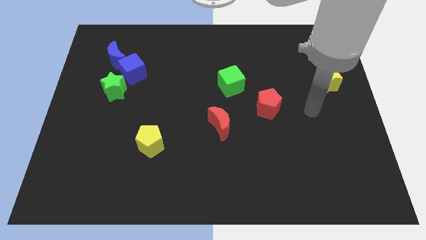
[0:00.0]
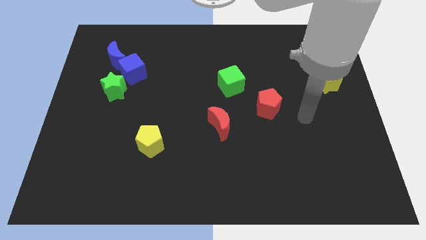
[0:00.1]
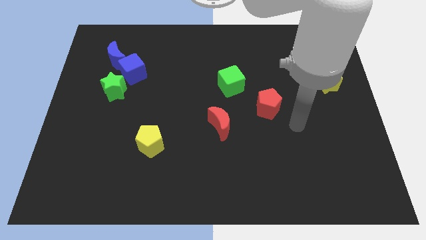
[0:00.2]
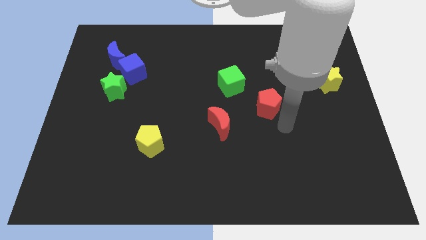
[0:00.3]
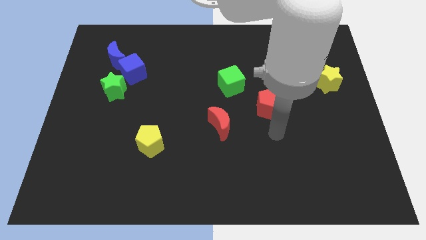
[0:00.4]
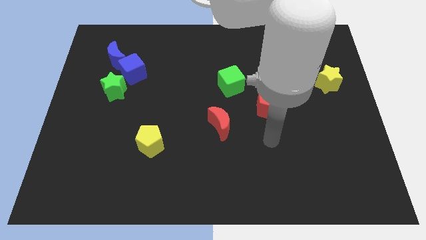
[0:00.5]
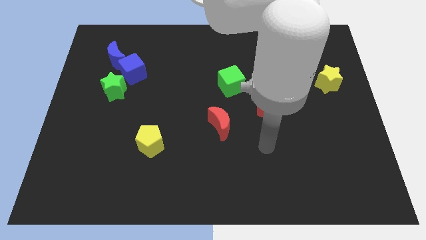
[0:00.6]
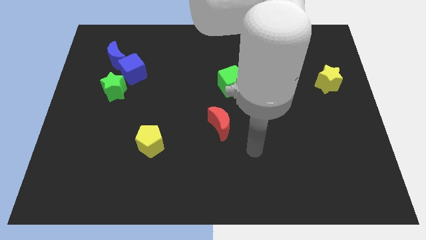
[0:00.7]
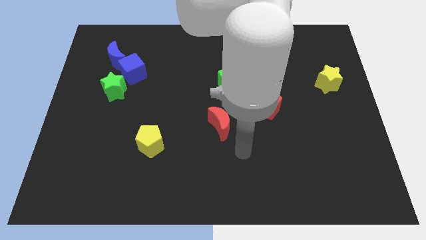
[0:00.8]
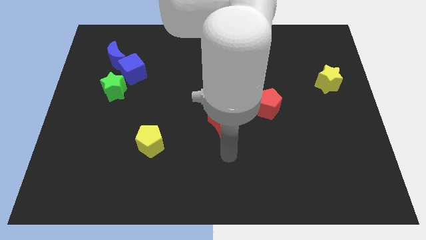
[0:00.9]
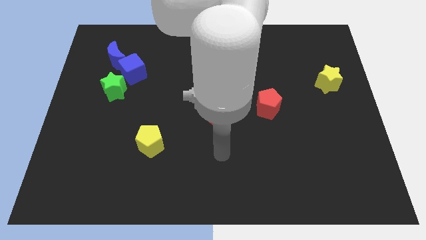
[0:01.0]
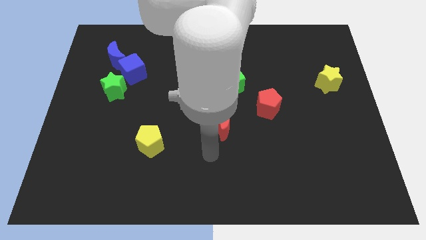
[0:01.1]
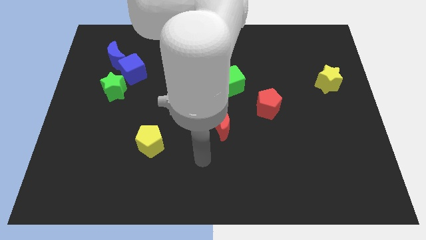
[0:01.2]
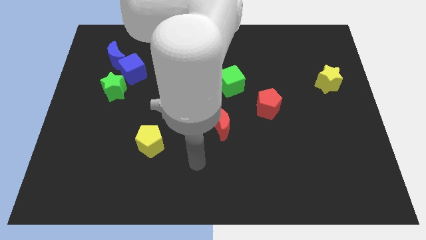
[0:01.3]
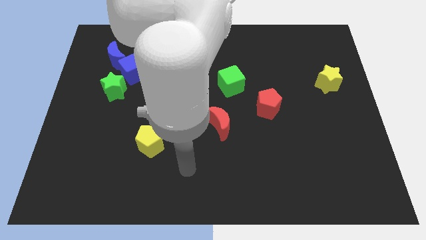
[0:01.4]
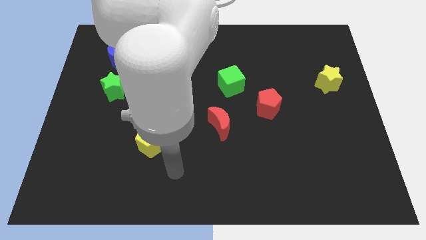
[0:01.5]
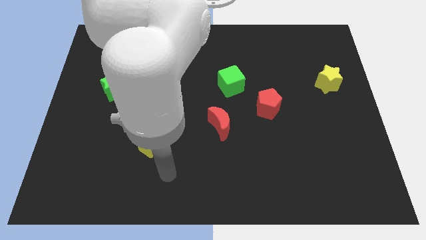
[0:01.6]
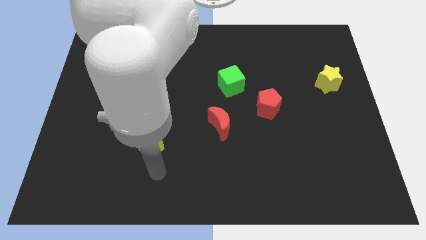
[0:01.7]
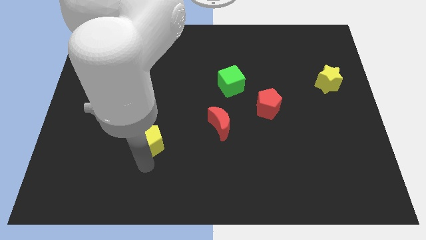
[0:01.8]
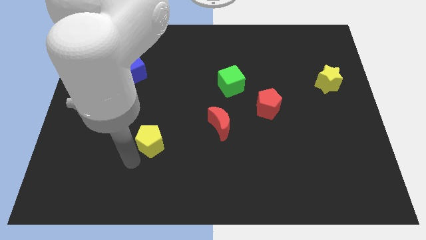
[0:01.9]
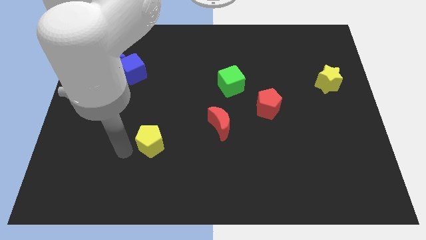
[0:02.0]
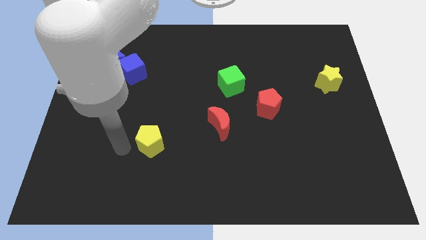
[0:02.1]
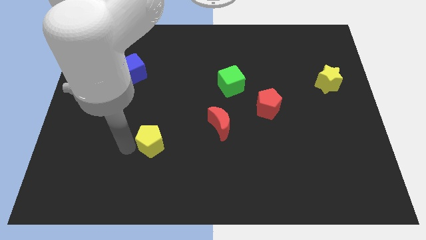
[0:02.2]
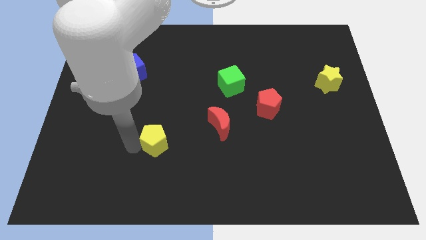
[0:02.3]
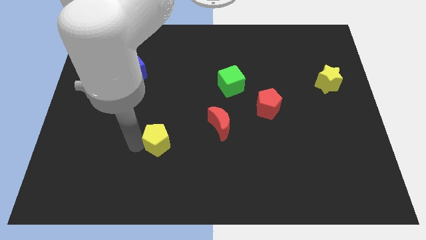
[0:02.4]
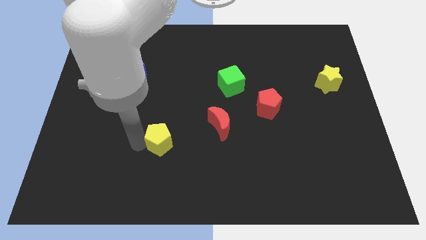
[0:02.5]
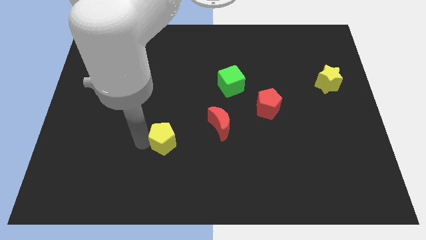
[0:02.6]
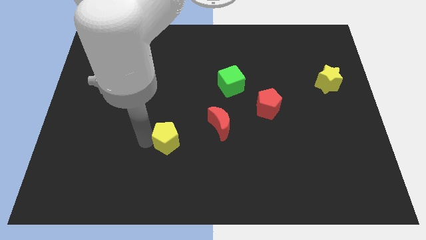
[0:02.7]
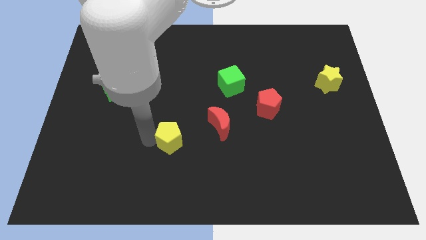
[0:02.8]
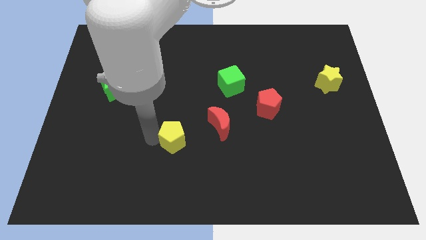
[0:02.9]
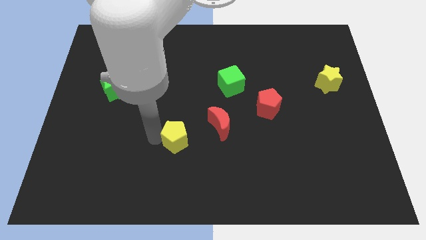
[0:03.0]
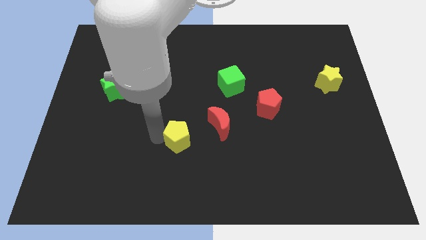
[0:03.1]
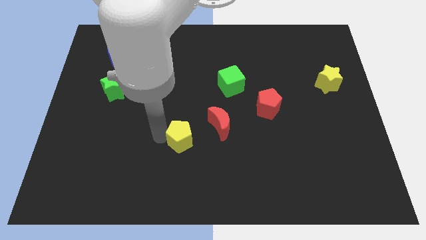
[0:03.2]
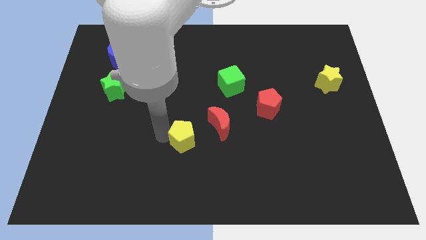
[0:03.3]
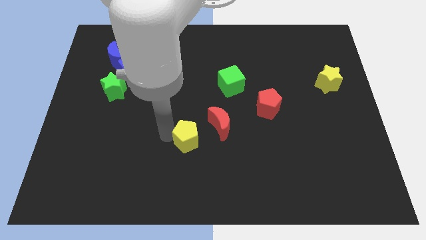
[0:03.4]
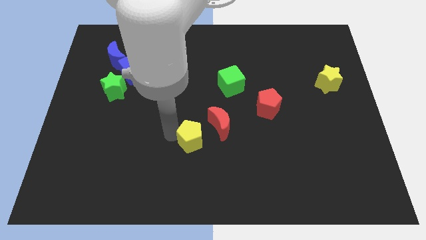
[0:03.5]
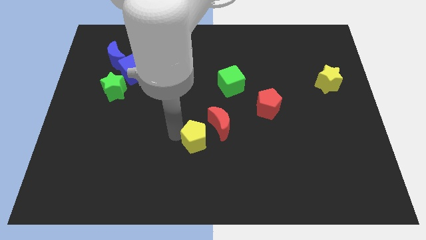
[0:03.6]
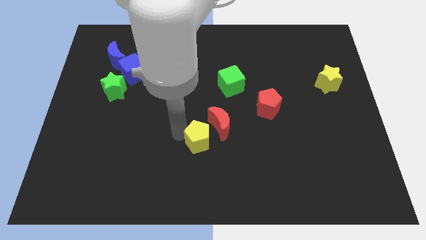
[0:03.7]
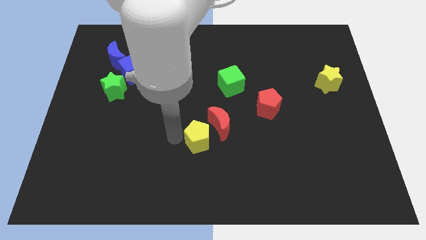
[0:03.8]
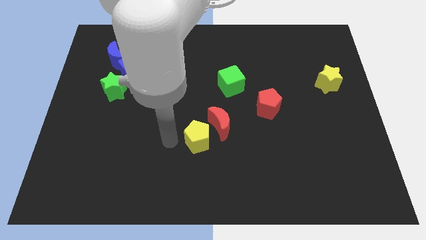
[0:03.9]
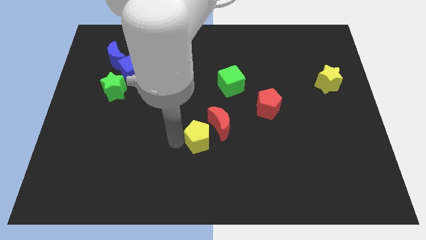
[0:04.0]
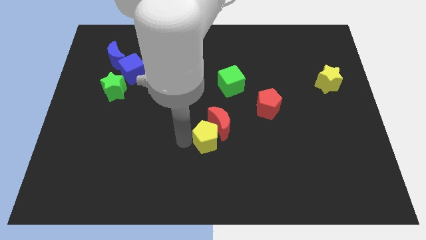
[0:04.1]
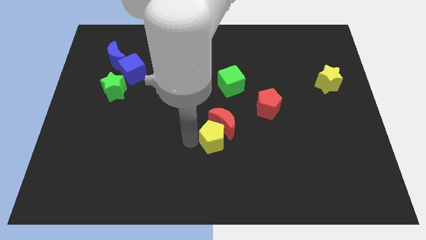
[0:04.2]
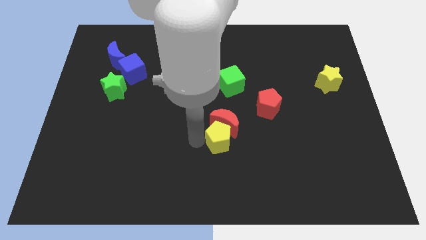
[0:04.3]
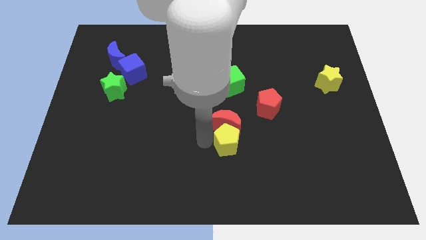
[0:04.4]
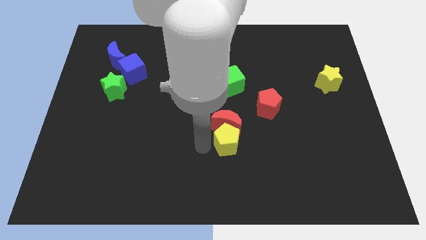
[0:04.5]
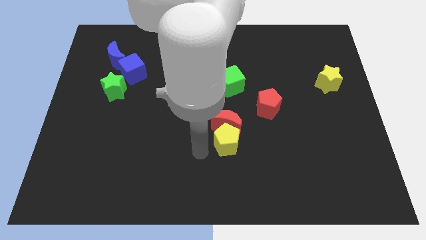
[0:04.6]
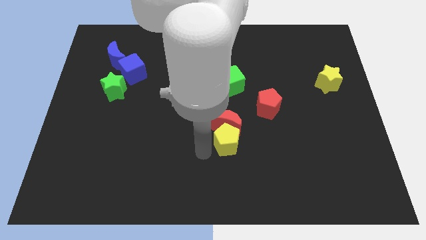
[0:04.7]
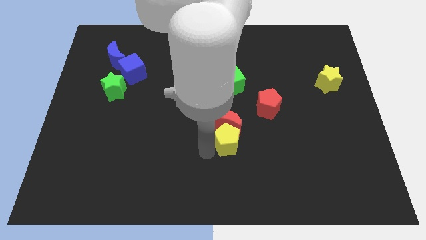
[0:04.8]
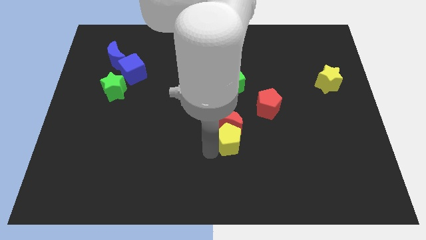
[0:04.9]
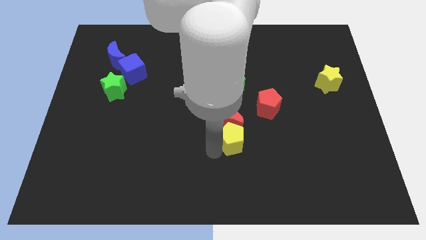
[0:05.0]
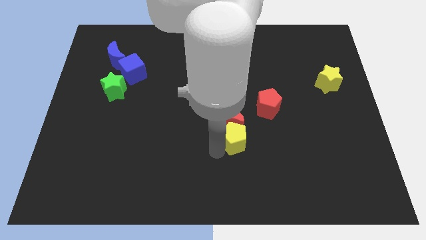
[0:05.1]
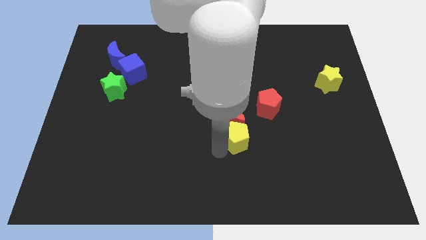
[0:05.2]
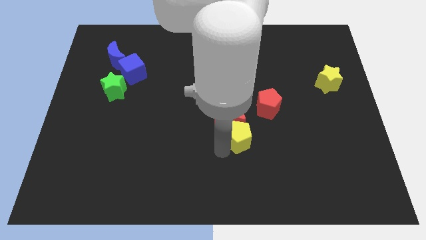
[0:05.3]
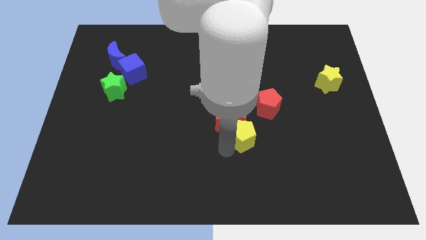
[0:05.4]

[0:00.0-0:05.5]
move the yellow pentagon right

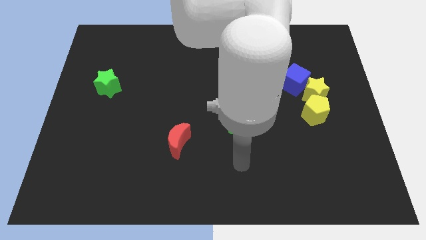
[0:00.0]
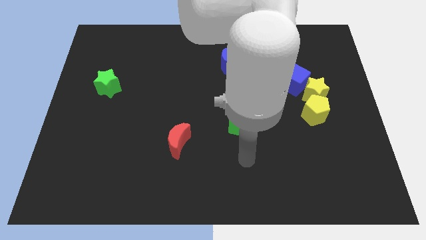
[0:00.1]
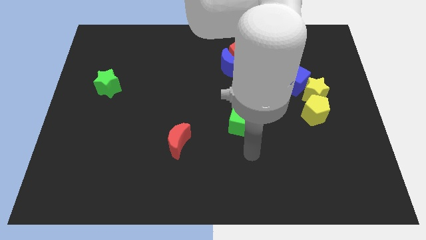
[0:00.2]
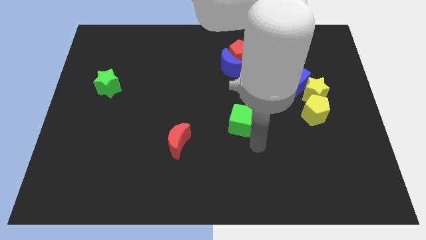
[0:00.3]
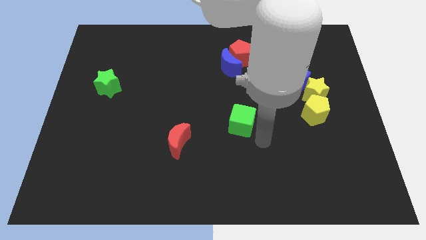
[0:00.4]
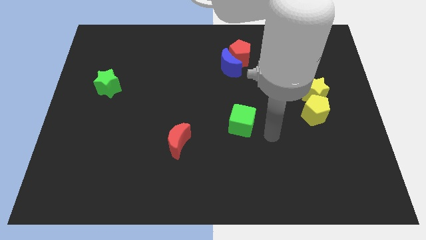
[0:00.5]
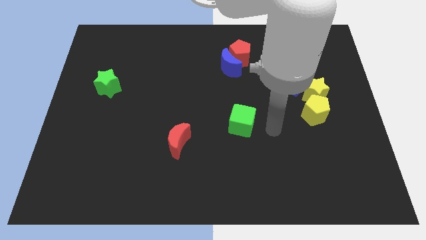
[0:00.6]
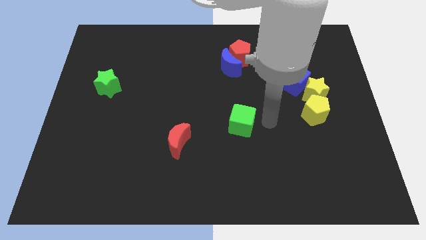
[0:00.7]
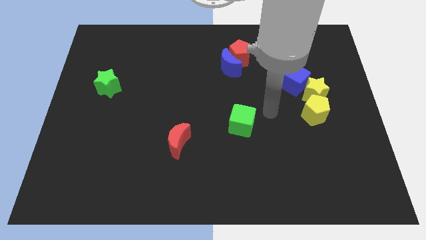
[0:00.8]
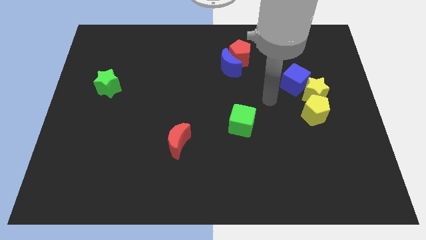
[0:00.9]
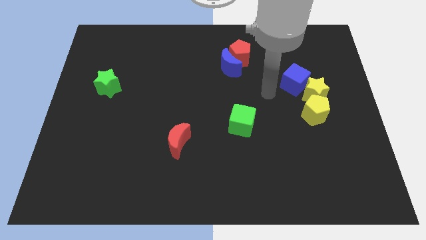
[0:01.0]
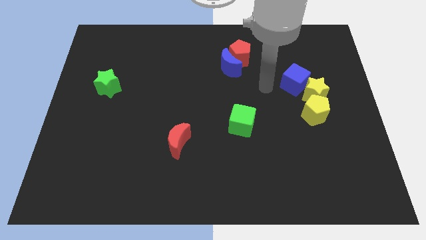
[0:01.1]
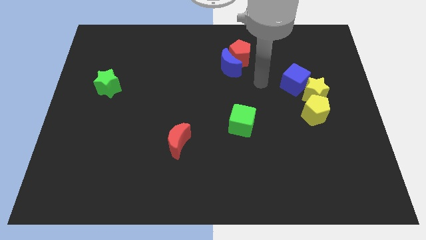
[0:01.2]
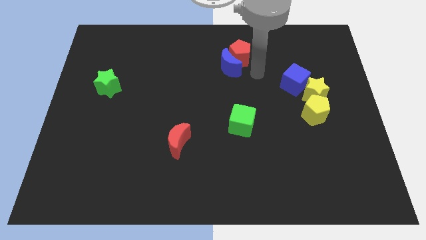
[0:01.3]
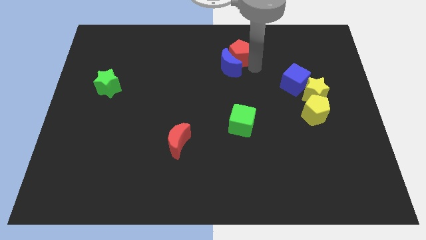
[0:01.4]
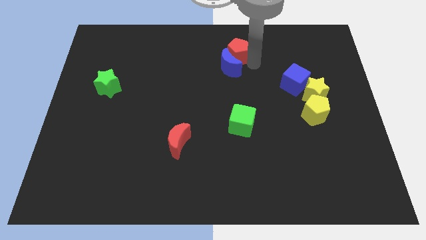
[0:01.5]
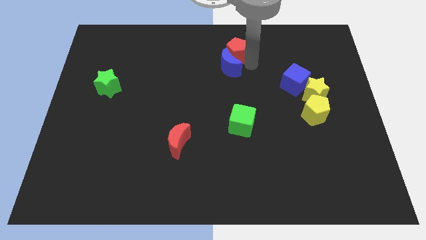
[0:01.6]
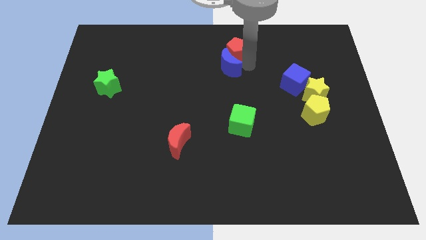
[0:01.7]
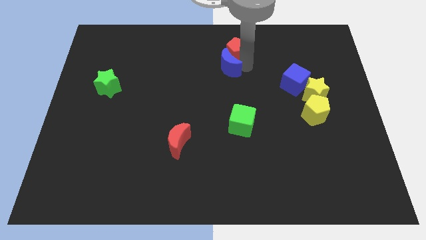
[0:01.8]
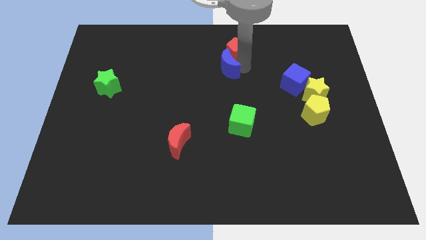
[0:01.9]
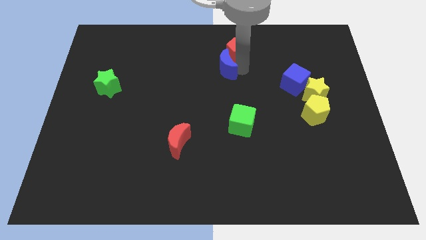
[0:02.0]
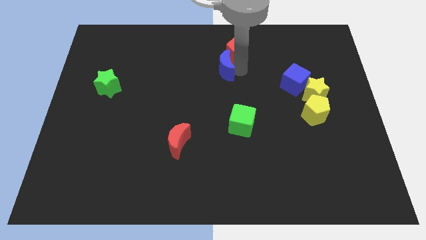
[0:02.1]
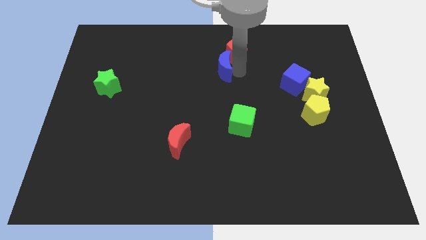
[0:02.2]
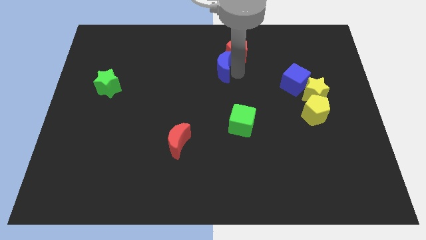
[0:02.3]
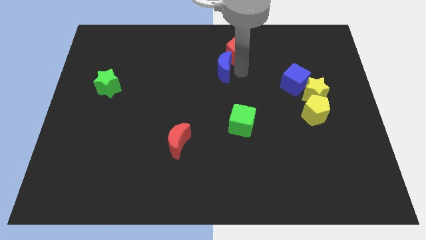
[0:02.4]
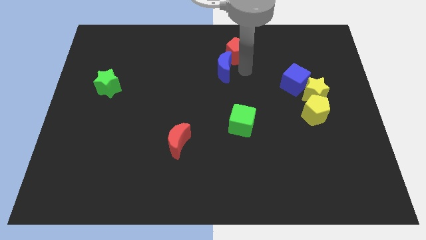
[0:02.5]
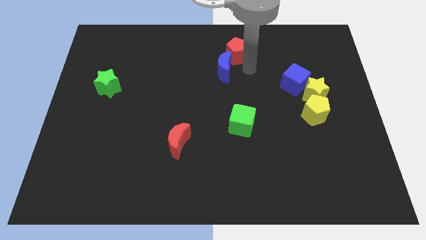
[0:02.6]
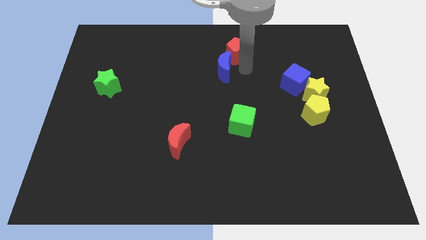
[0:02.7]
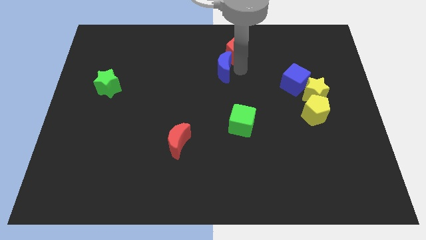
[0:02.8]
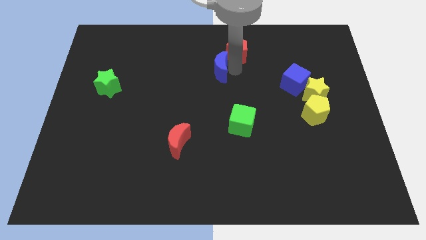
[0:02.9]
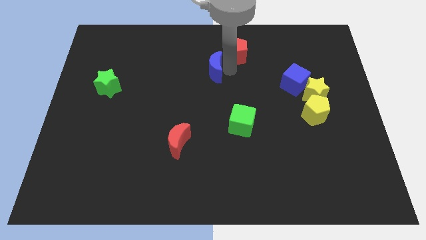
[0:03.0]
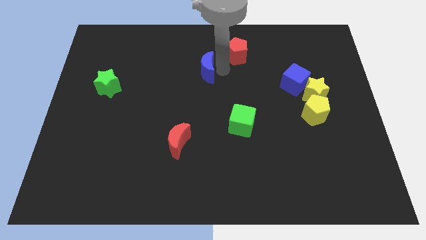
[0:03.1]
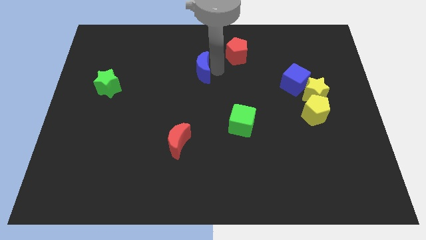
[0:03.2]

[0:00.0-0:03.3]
slide the blue moon a bit left
